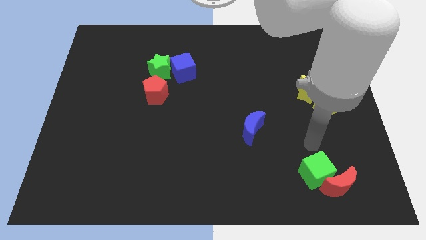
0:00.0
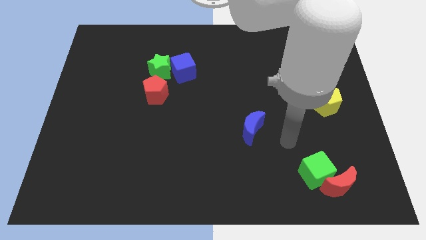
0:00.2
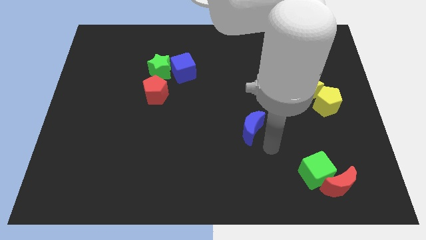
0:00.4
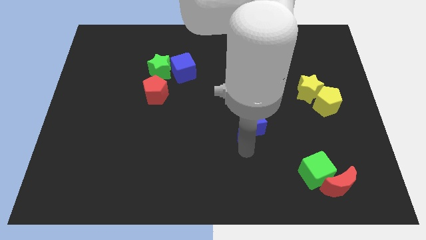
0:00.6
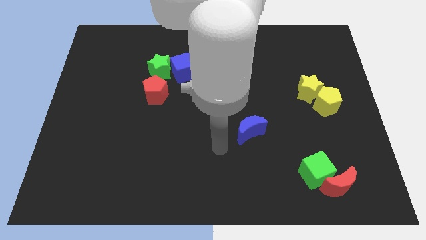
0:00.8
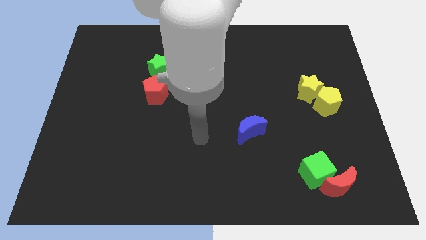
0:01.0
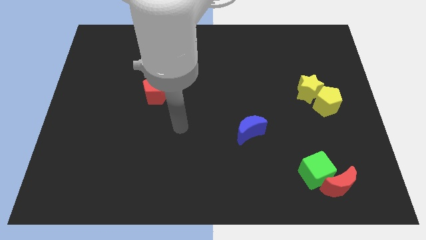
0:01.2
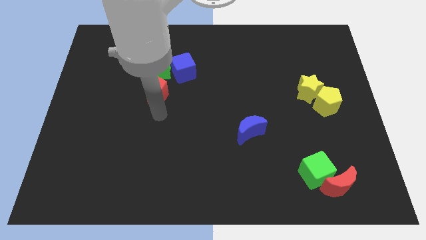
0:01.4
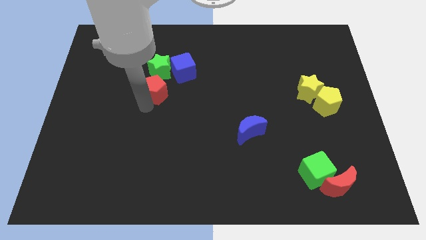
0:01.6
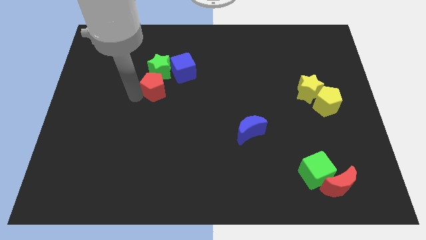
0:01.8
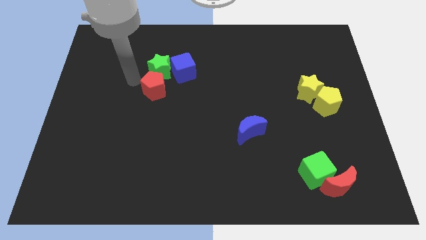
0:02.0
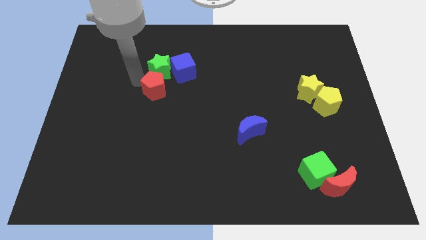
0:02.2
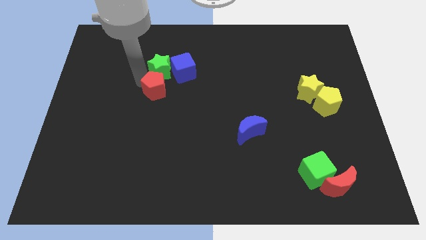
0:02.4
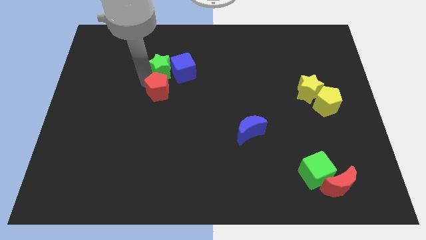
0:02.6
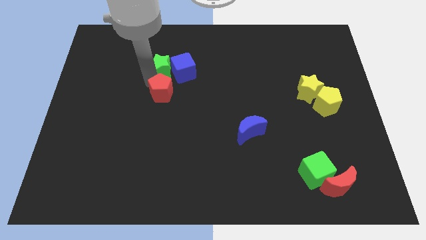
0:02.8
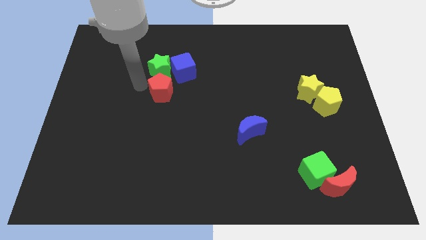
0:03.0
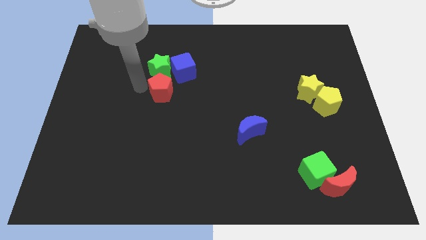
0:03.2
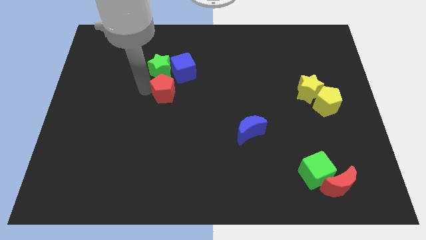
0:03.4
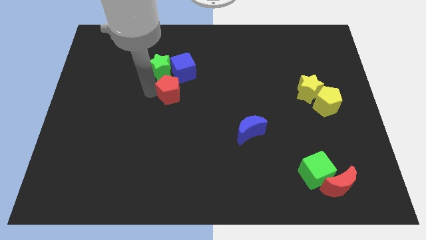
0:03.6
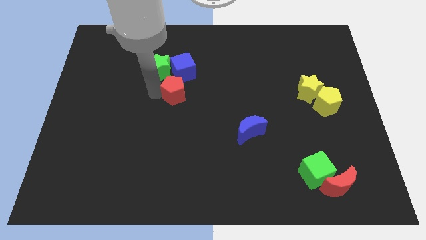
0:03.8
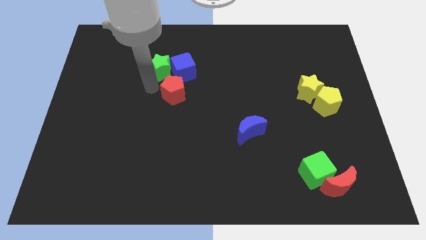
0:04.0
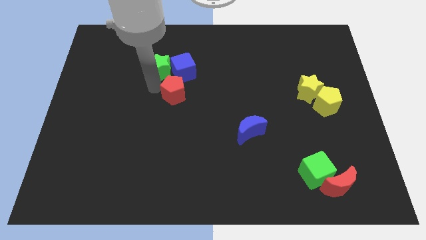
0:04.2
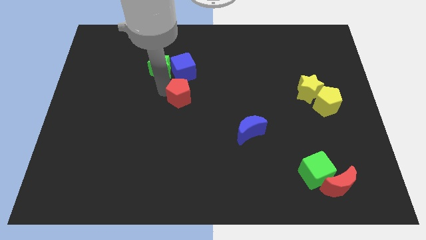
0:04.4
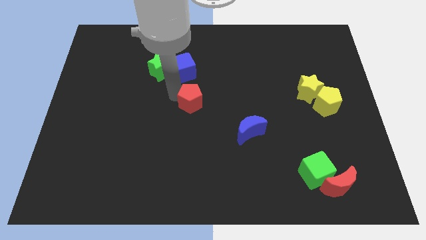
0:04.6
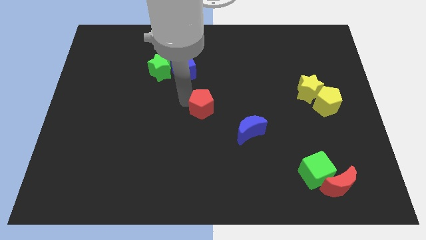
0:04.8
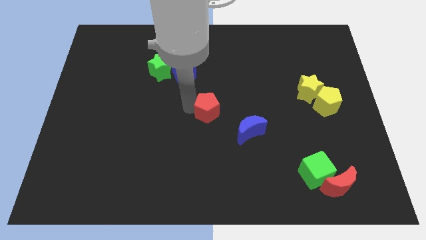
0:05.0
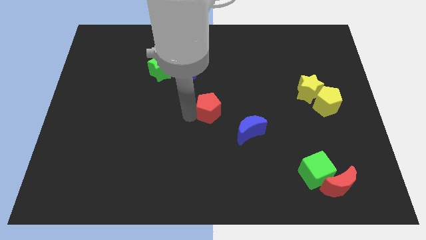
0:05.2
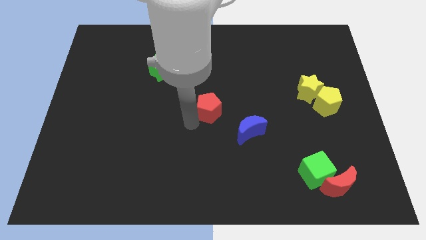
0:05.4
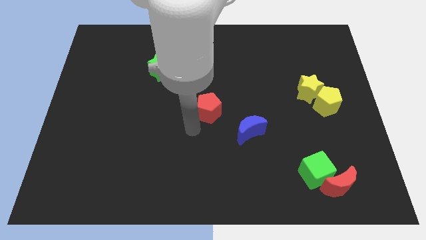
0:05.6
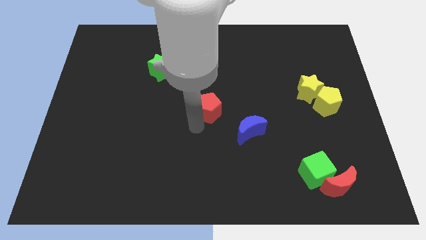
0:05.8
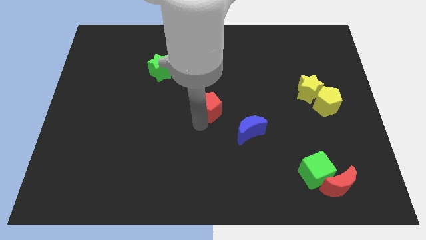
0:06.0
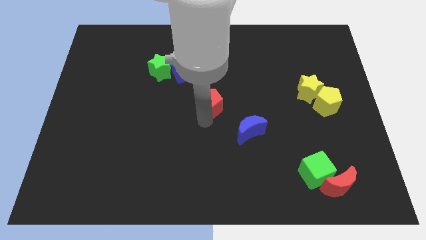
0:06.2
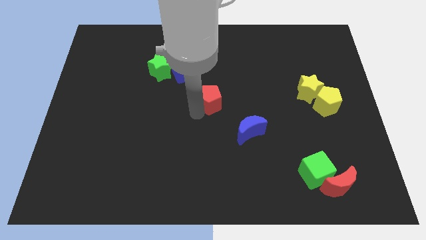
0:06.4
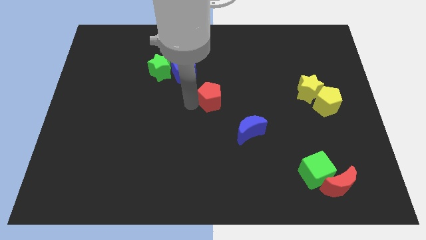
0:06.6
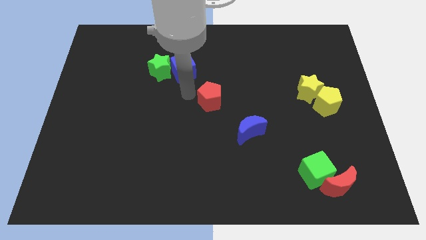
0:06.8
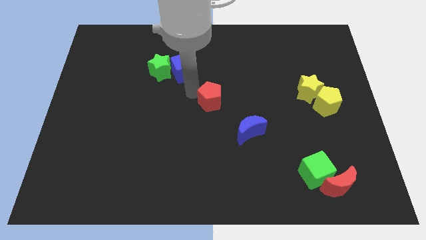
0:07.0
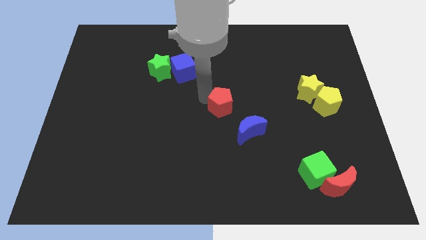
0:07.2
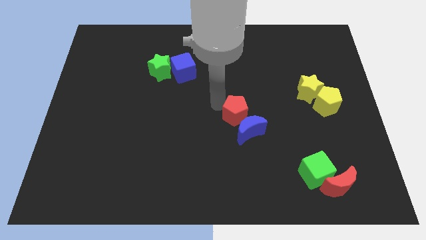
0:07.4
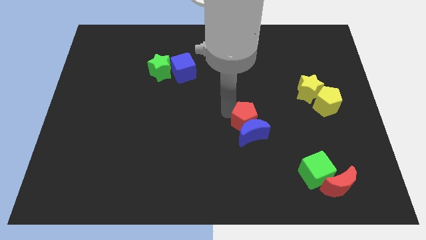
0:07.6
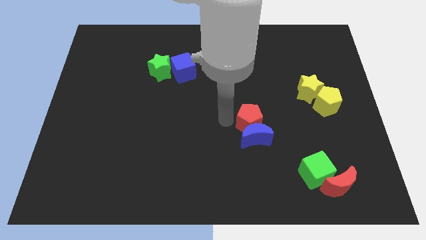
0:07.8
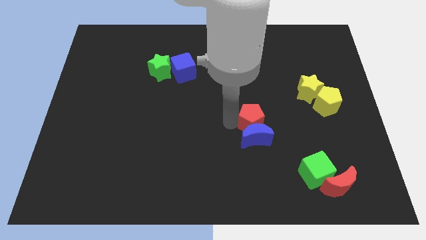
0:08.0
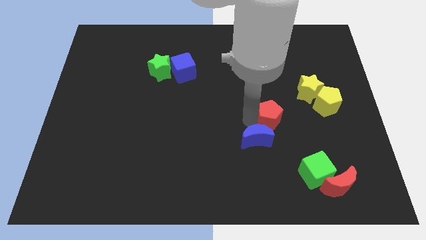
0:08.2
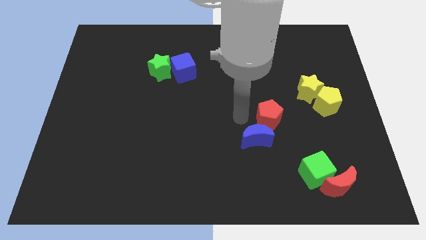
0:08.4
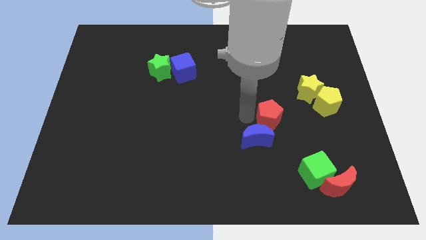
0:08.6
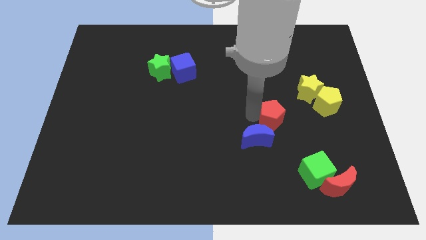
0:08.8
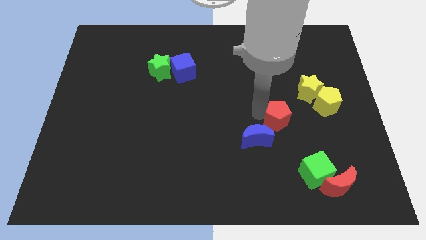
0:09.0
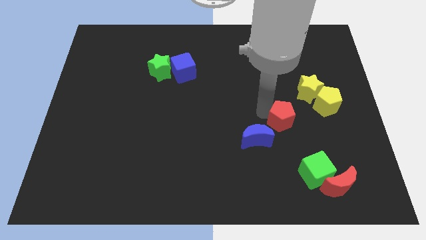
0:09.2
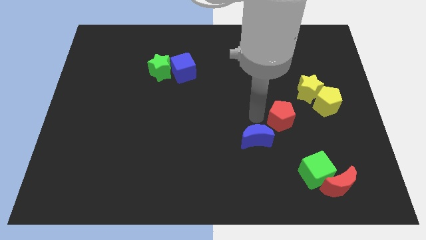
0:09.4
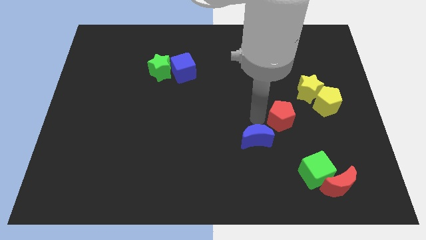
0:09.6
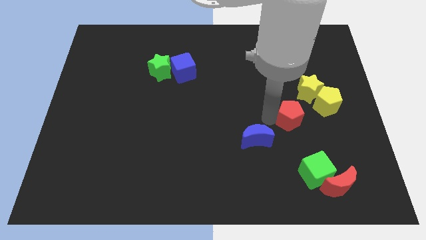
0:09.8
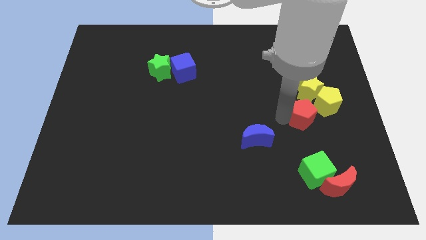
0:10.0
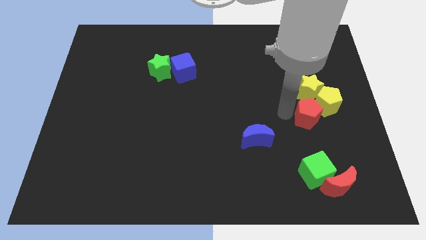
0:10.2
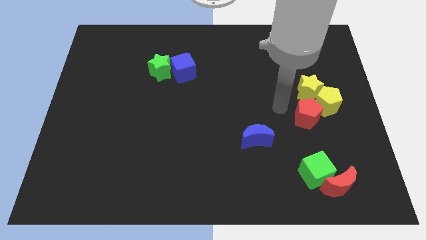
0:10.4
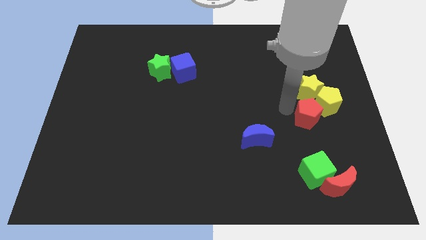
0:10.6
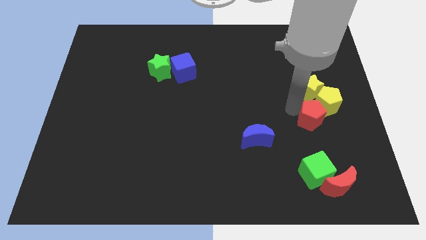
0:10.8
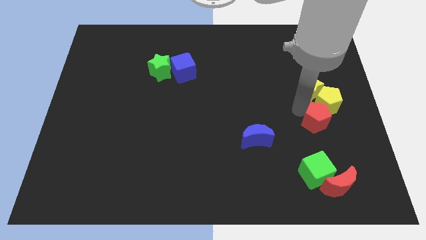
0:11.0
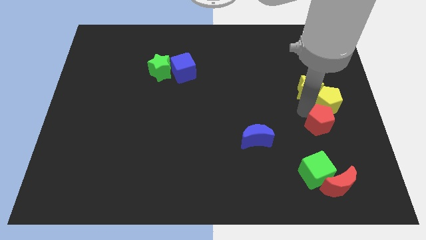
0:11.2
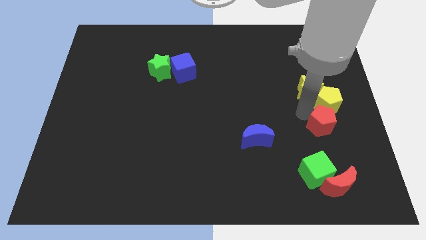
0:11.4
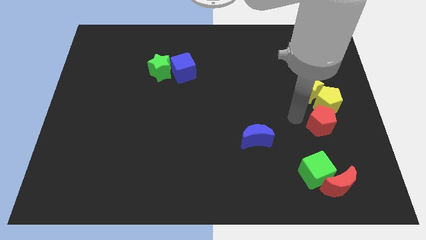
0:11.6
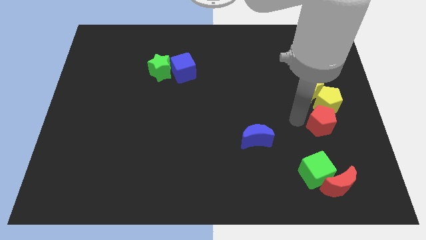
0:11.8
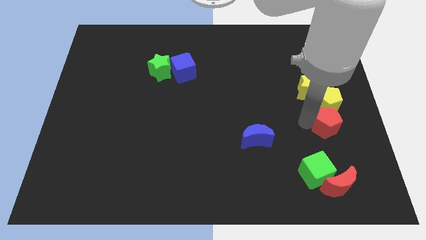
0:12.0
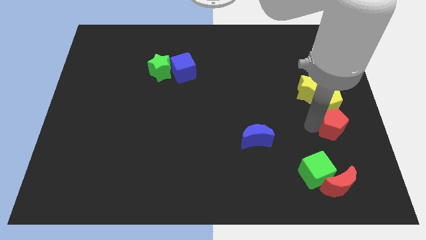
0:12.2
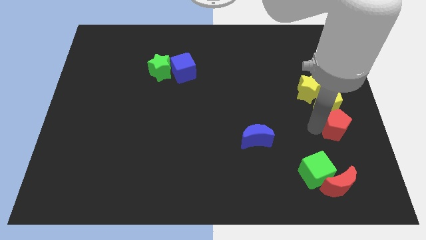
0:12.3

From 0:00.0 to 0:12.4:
move the red pentagon to the right side of the board
